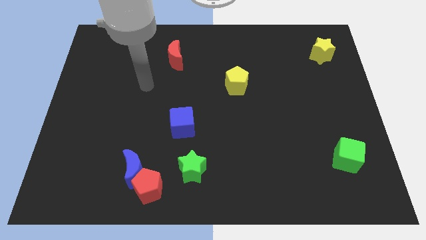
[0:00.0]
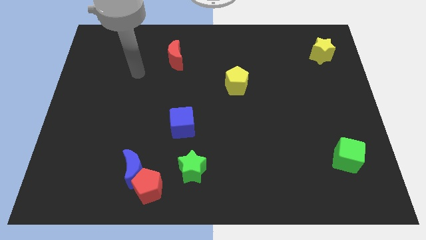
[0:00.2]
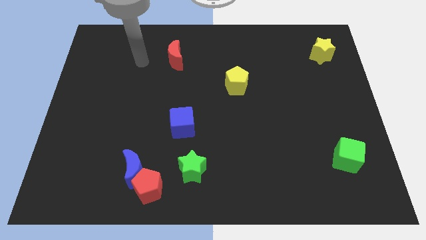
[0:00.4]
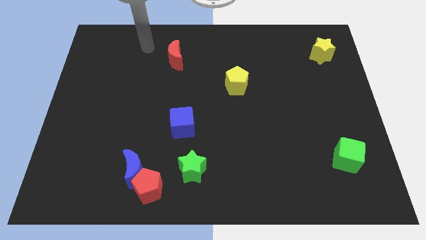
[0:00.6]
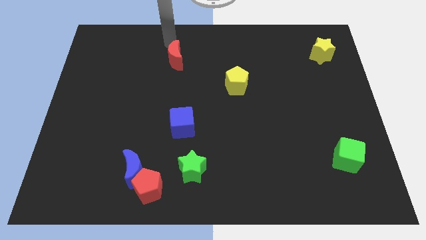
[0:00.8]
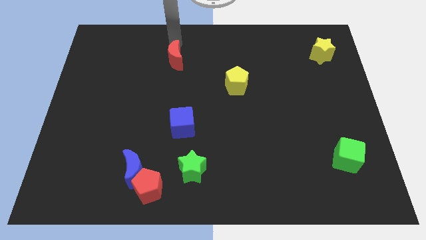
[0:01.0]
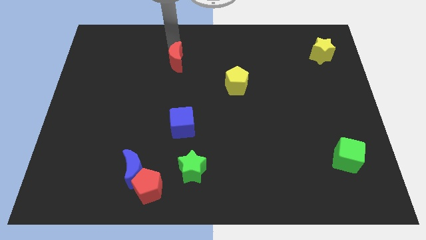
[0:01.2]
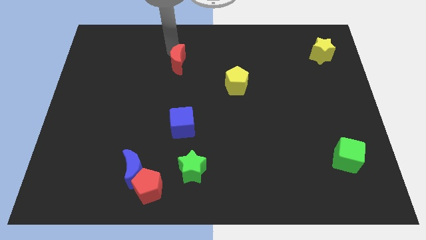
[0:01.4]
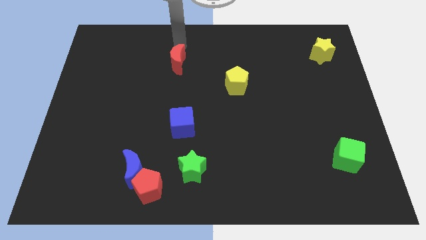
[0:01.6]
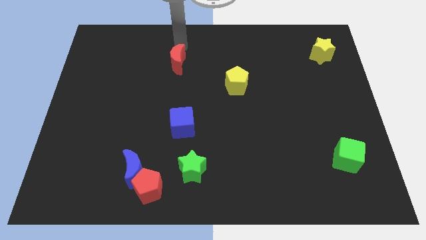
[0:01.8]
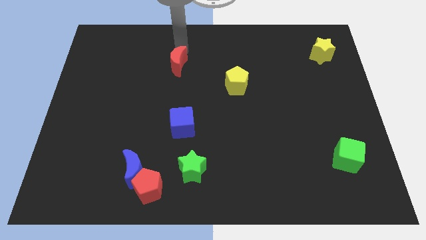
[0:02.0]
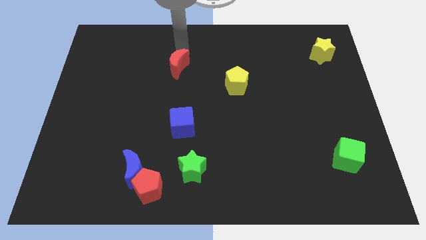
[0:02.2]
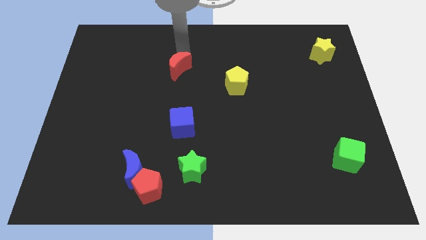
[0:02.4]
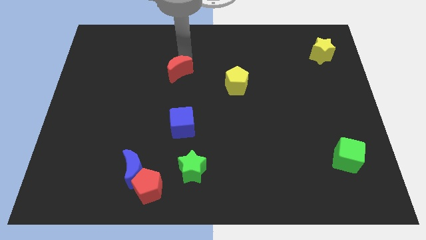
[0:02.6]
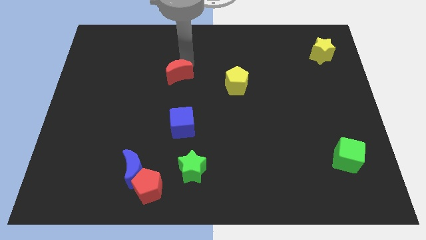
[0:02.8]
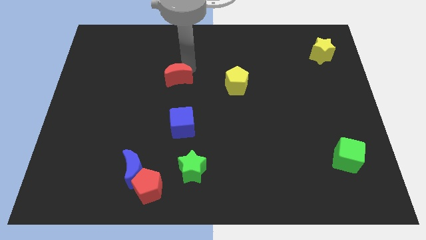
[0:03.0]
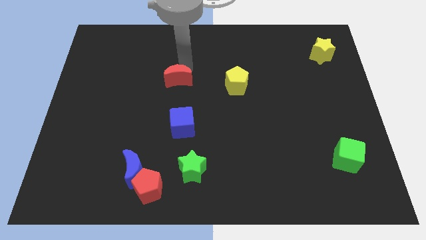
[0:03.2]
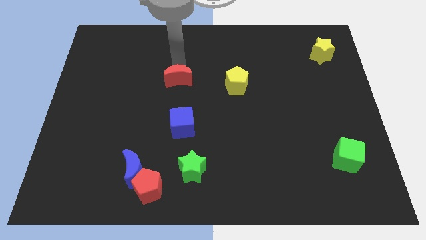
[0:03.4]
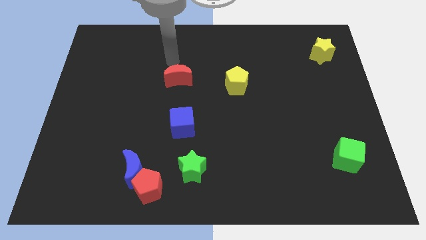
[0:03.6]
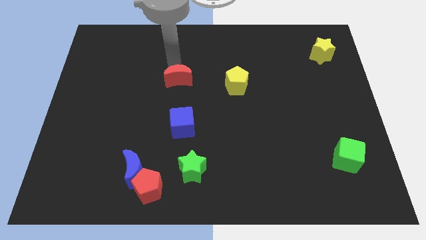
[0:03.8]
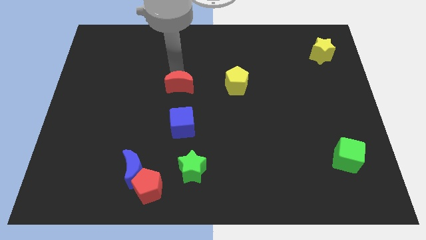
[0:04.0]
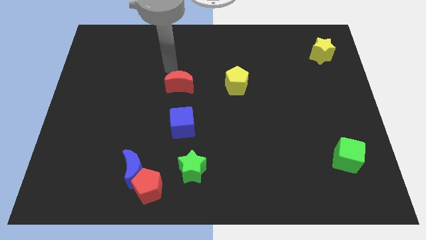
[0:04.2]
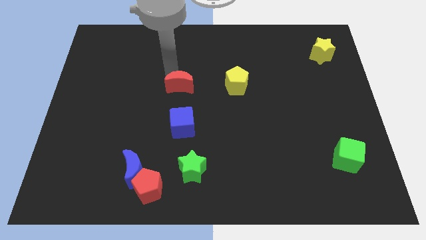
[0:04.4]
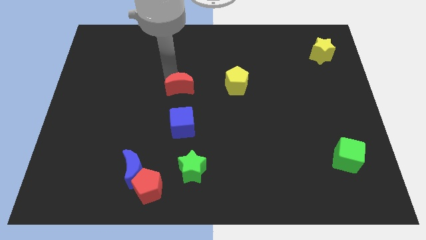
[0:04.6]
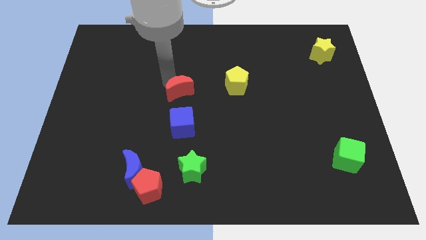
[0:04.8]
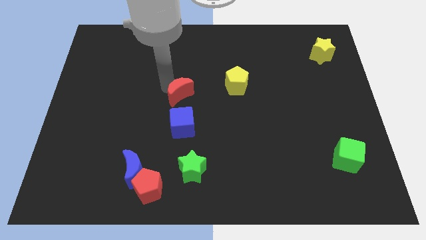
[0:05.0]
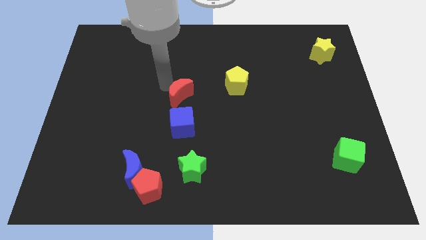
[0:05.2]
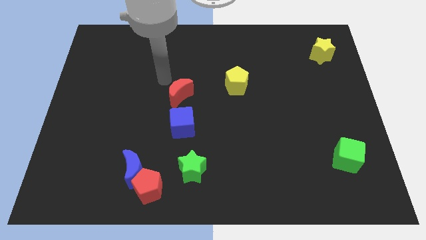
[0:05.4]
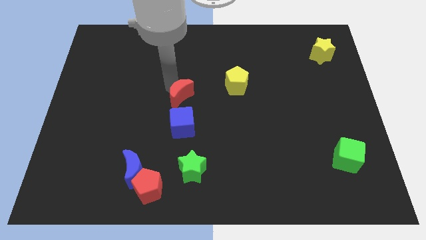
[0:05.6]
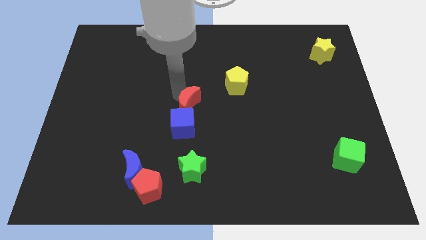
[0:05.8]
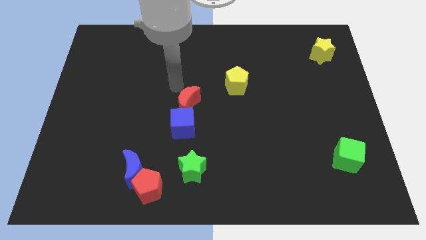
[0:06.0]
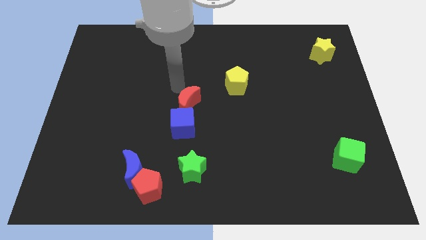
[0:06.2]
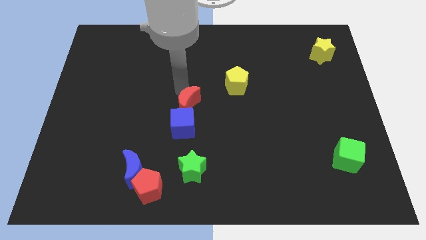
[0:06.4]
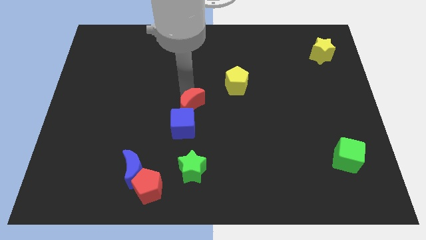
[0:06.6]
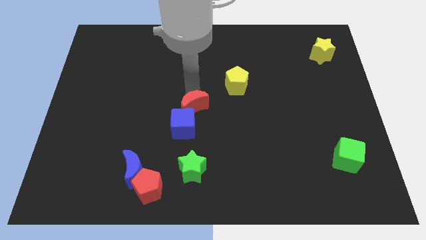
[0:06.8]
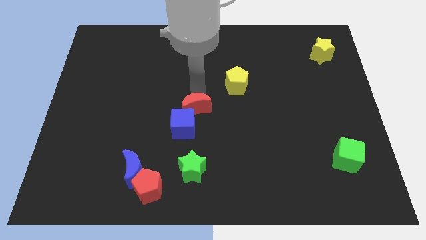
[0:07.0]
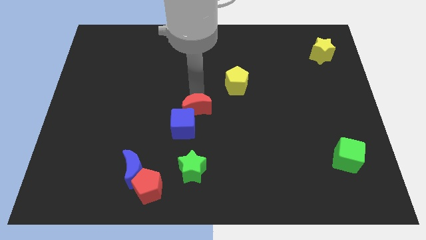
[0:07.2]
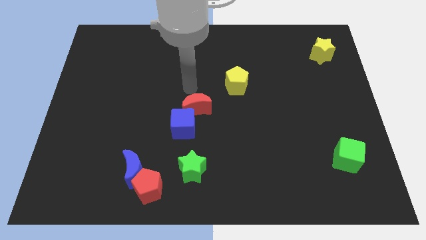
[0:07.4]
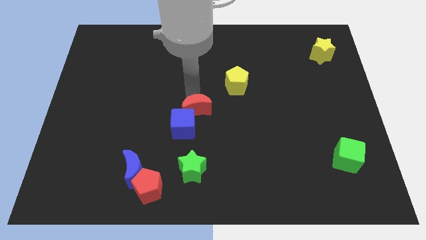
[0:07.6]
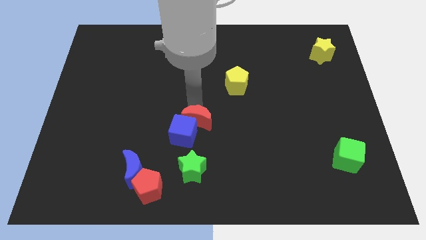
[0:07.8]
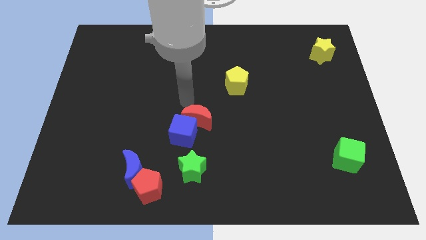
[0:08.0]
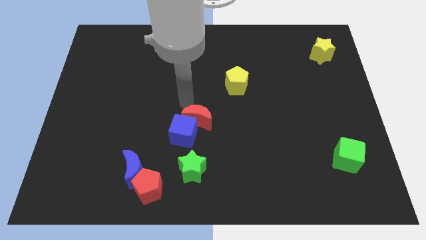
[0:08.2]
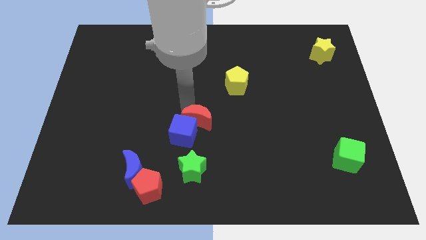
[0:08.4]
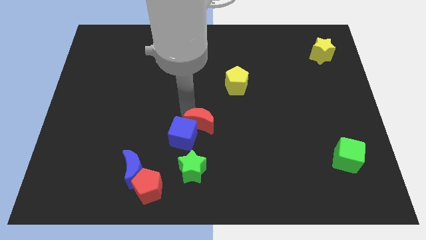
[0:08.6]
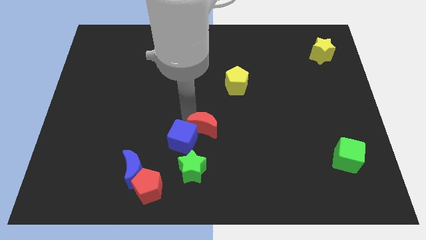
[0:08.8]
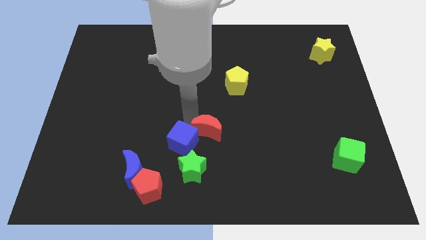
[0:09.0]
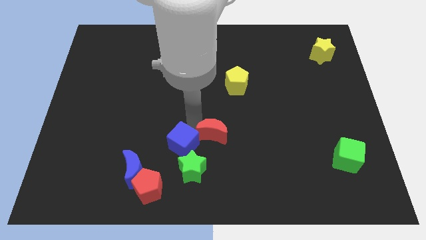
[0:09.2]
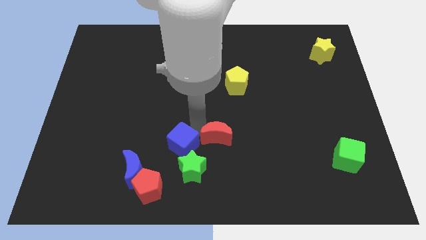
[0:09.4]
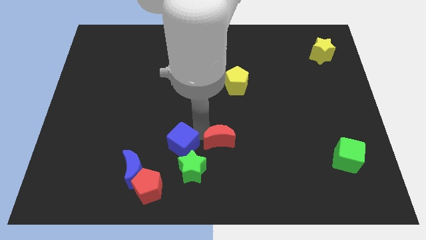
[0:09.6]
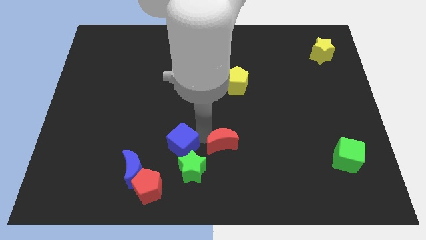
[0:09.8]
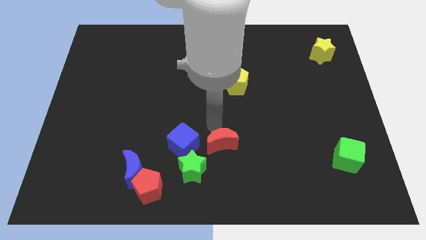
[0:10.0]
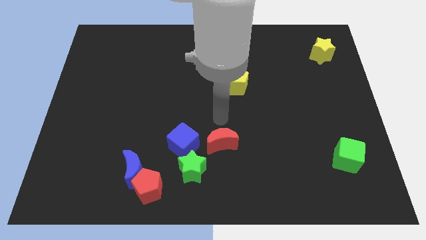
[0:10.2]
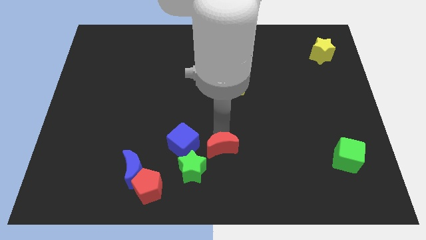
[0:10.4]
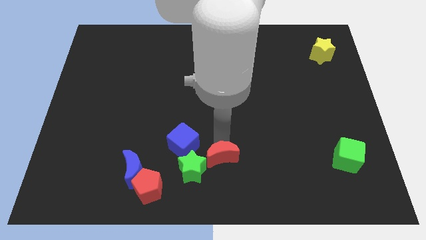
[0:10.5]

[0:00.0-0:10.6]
move the red moon to the bottom side

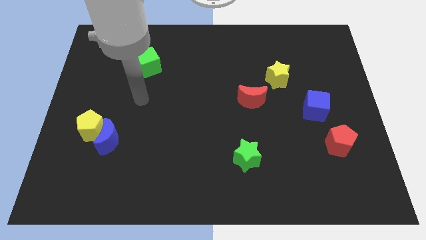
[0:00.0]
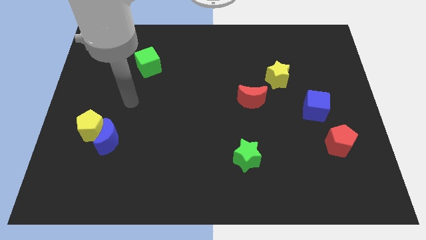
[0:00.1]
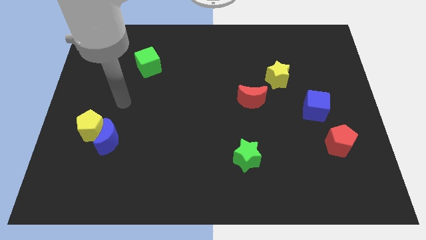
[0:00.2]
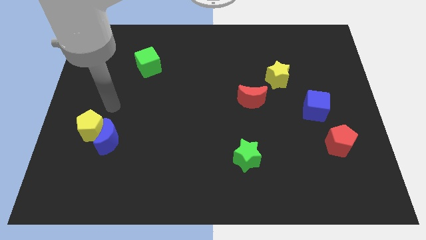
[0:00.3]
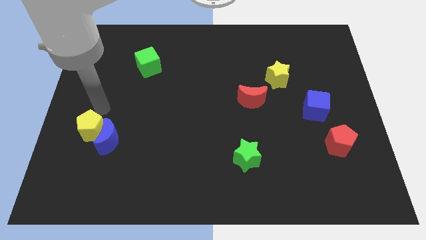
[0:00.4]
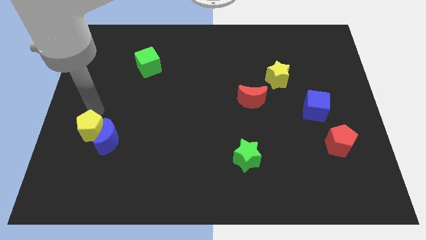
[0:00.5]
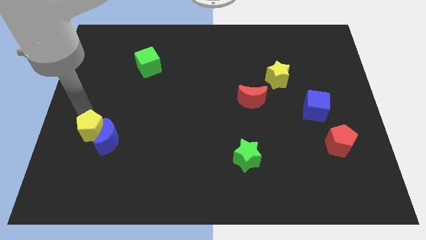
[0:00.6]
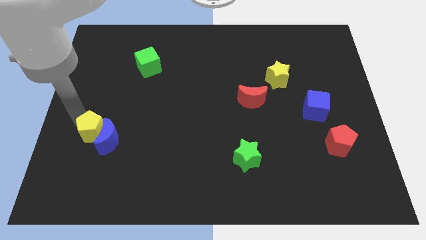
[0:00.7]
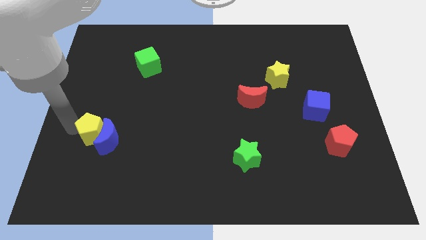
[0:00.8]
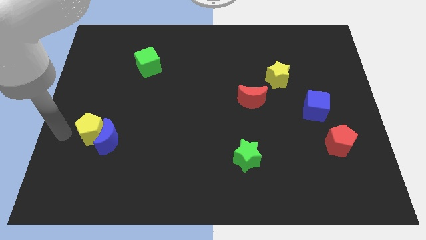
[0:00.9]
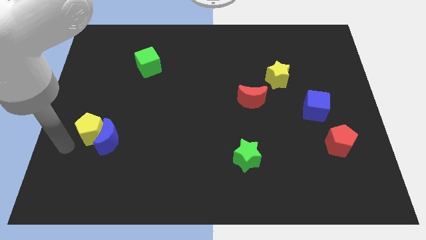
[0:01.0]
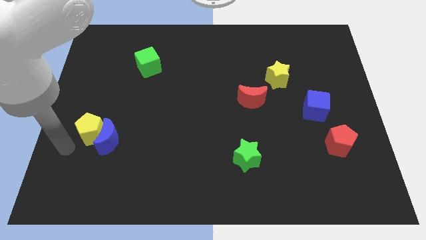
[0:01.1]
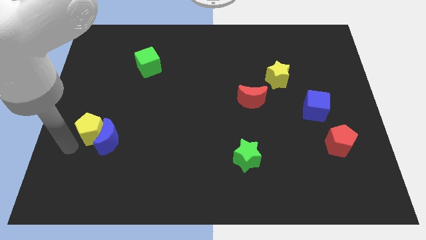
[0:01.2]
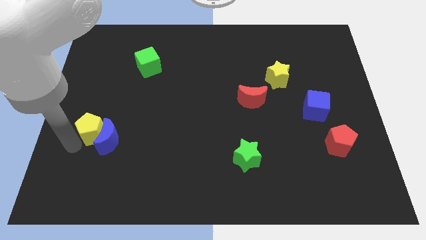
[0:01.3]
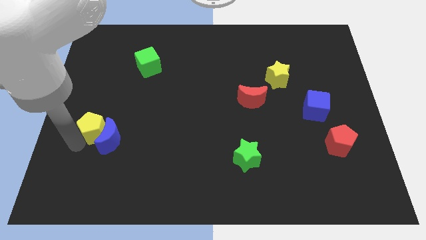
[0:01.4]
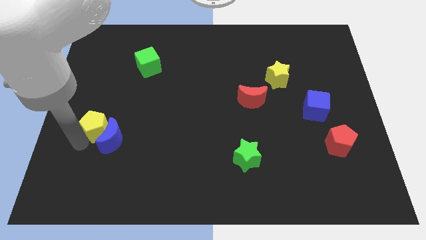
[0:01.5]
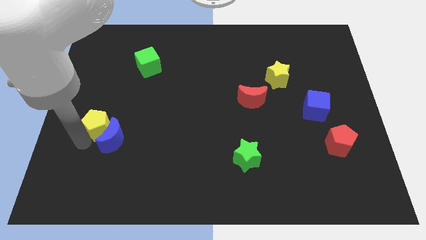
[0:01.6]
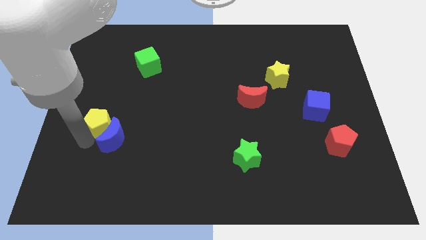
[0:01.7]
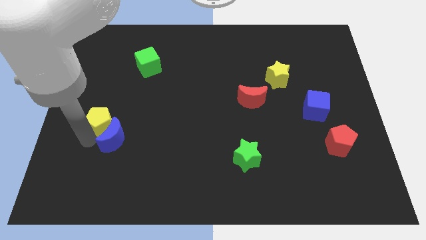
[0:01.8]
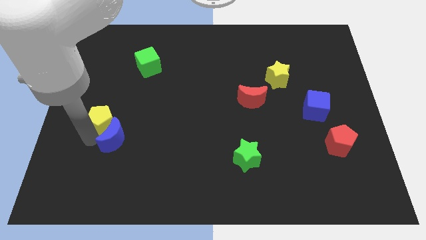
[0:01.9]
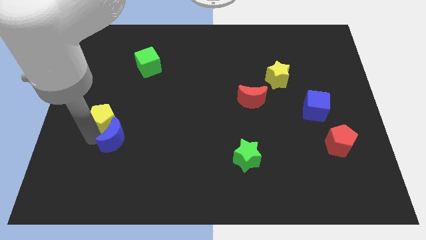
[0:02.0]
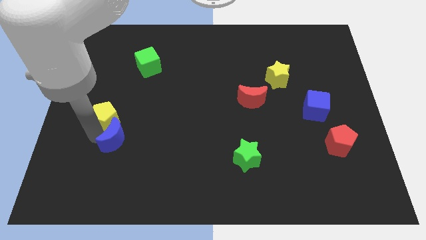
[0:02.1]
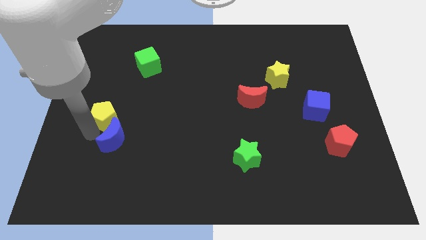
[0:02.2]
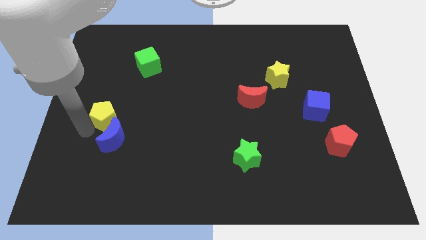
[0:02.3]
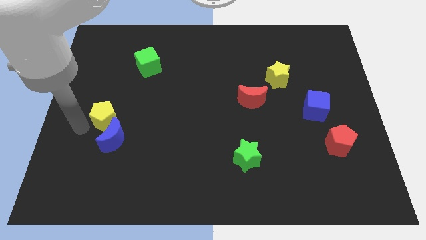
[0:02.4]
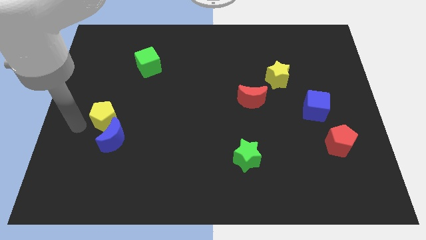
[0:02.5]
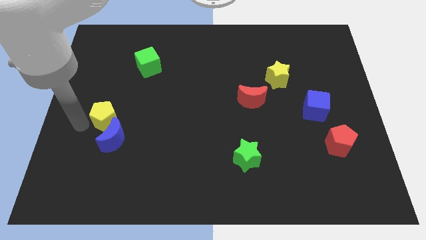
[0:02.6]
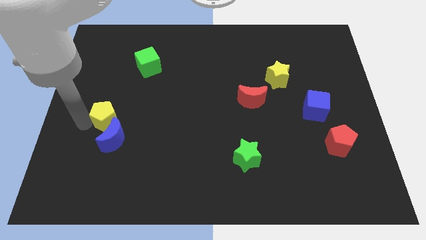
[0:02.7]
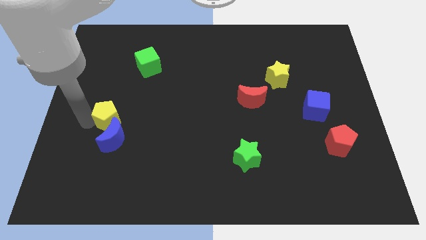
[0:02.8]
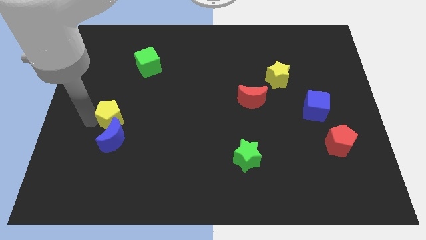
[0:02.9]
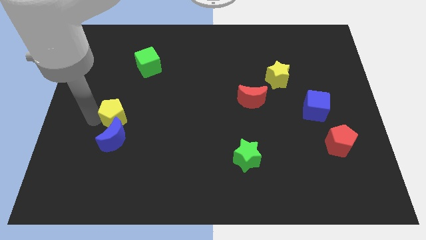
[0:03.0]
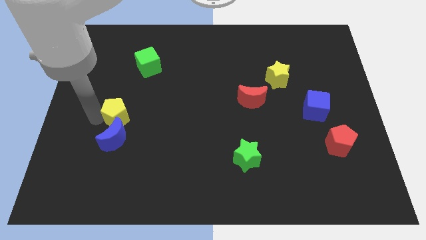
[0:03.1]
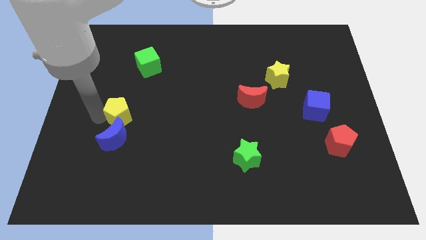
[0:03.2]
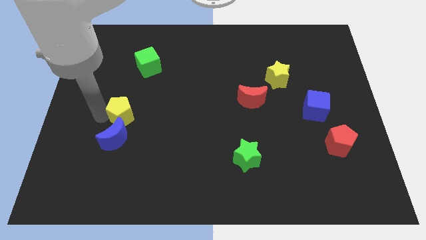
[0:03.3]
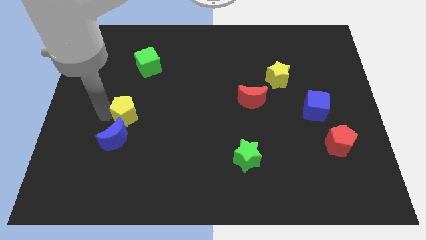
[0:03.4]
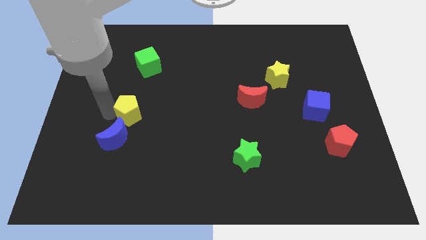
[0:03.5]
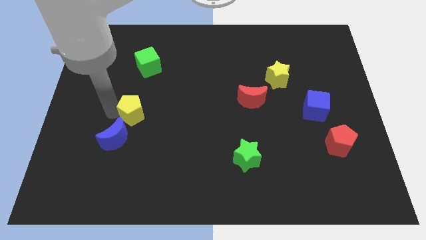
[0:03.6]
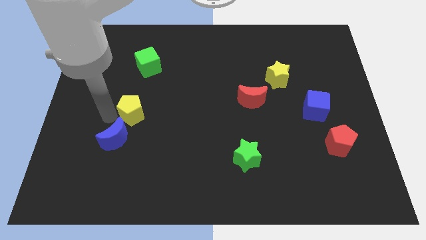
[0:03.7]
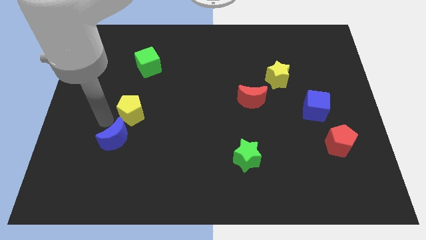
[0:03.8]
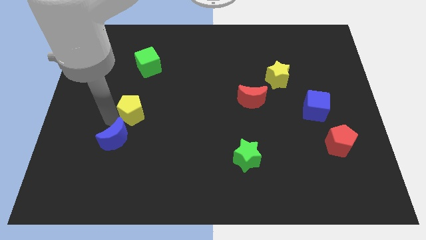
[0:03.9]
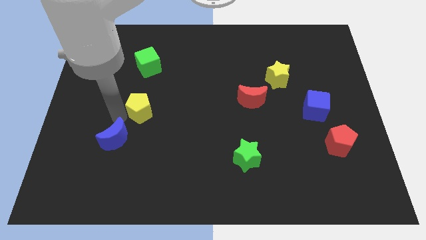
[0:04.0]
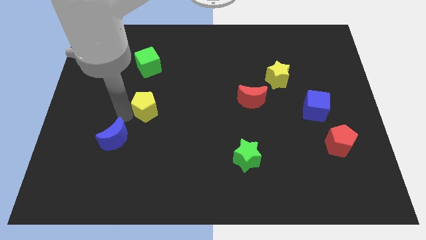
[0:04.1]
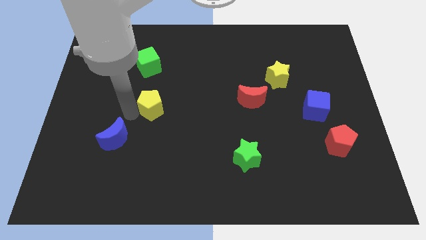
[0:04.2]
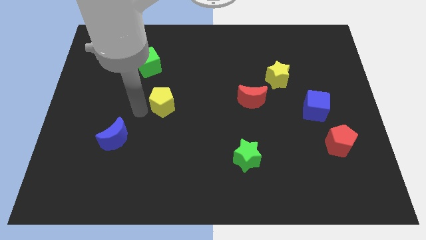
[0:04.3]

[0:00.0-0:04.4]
put the yellow pentagon to the middle of the board
